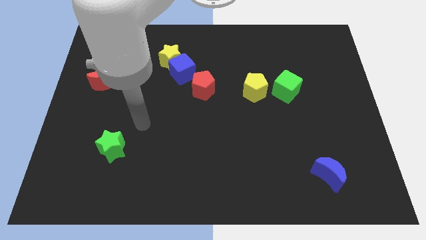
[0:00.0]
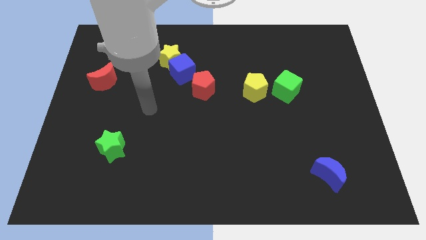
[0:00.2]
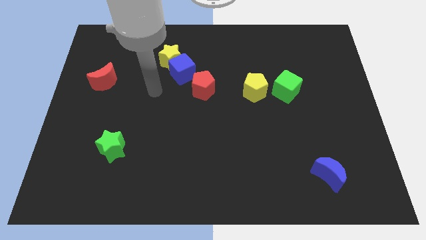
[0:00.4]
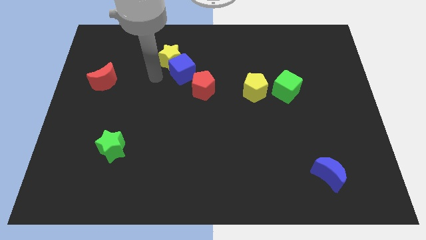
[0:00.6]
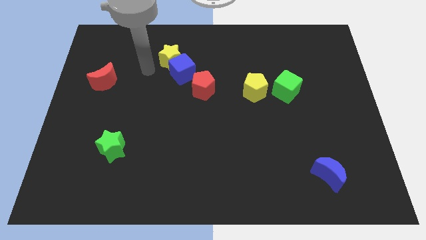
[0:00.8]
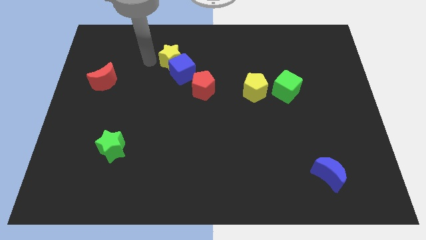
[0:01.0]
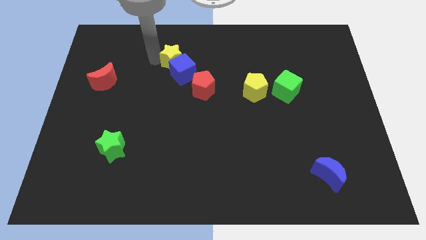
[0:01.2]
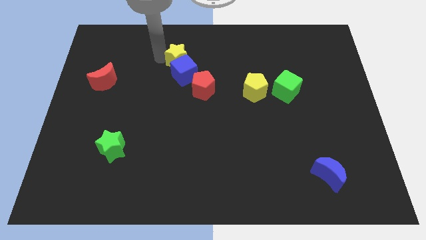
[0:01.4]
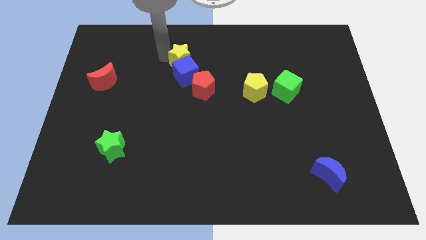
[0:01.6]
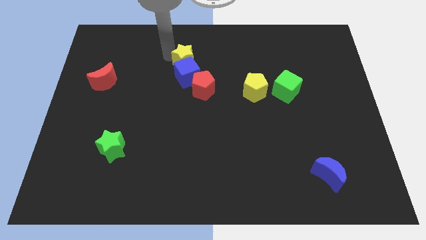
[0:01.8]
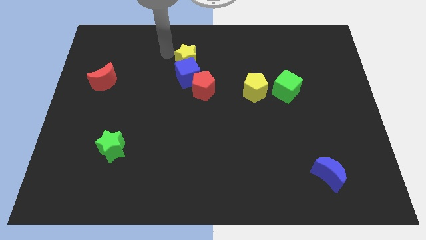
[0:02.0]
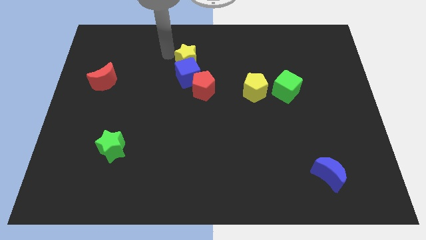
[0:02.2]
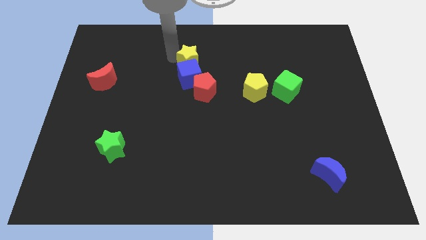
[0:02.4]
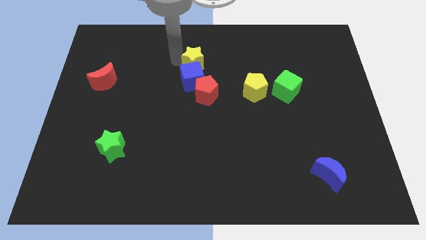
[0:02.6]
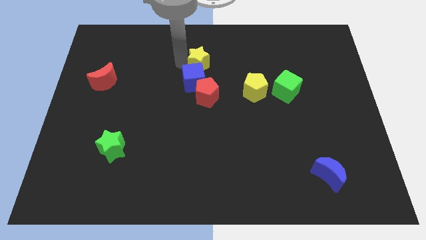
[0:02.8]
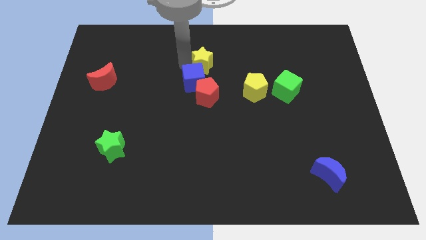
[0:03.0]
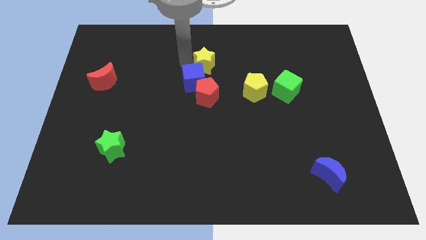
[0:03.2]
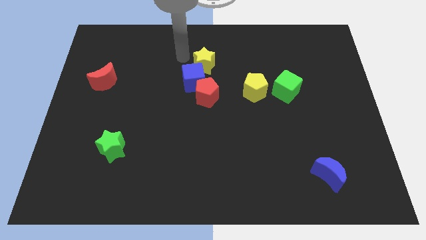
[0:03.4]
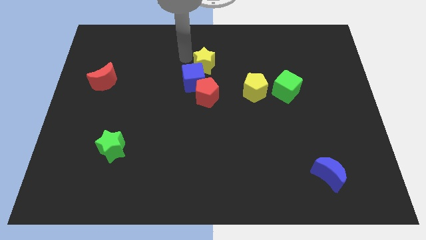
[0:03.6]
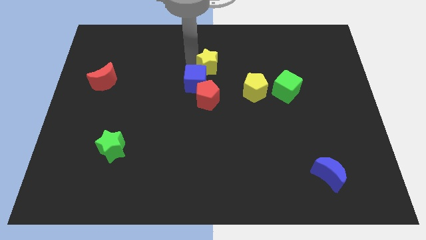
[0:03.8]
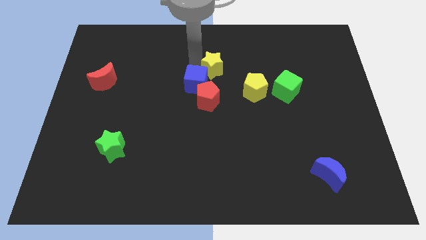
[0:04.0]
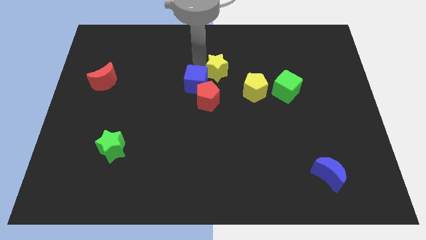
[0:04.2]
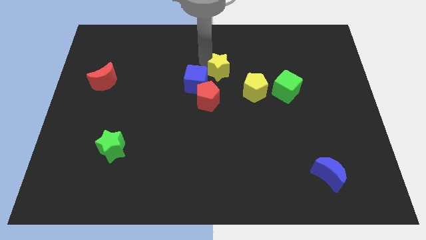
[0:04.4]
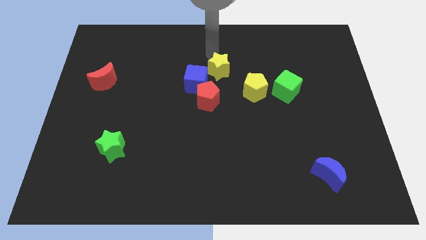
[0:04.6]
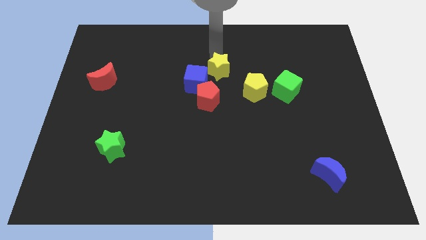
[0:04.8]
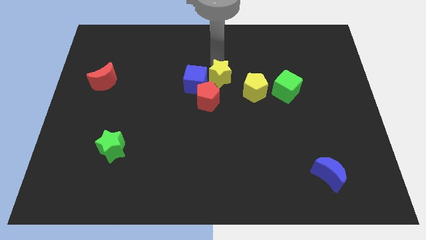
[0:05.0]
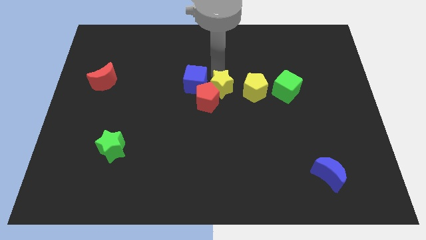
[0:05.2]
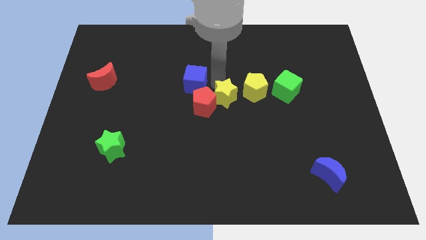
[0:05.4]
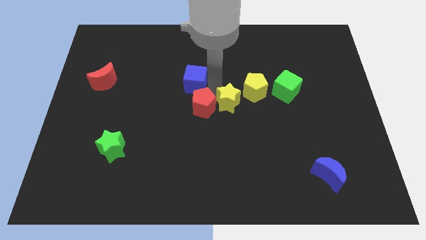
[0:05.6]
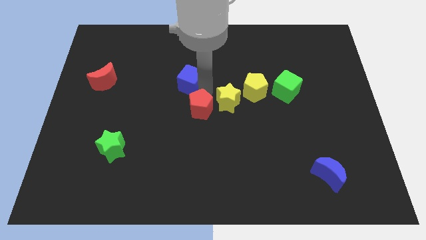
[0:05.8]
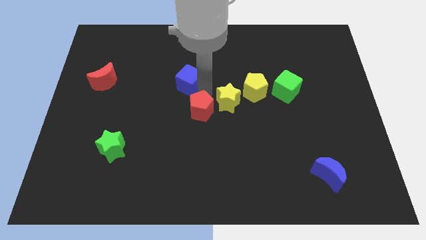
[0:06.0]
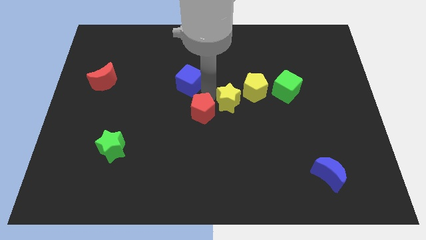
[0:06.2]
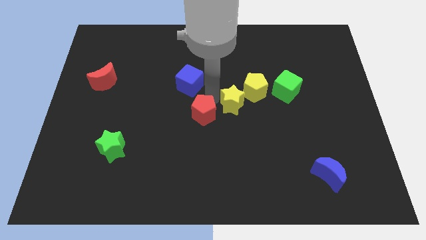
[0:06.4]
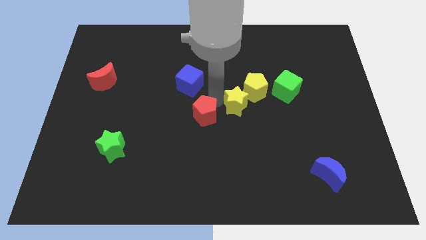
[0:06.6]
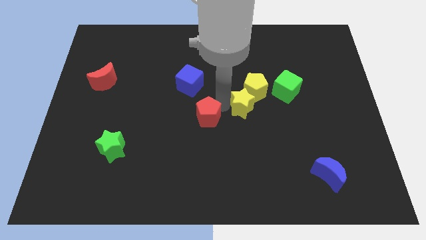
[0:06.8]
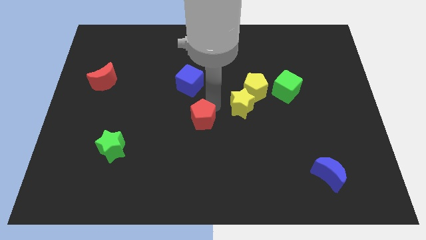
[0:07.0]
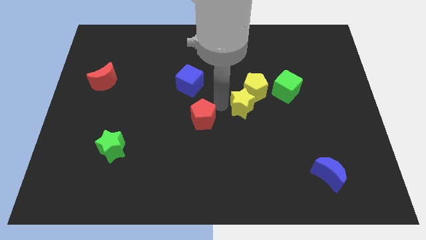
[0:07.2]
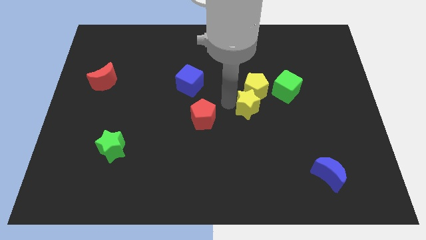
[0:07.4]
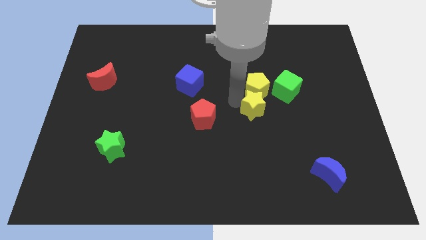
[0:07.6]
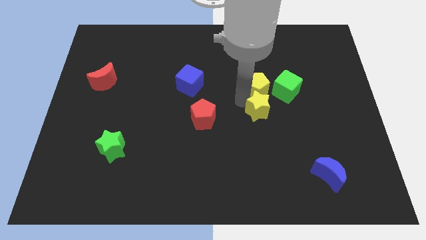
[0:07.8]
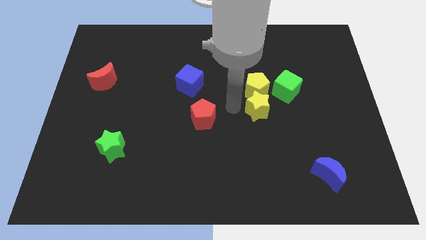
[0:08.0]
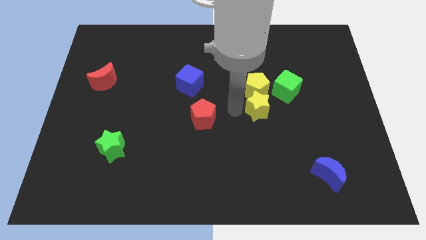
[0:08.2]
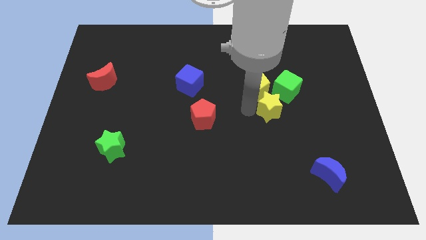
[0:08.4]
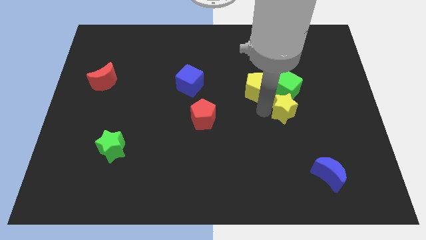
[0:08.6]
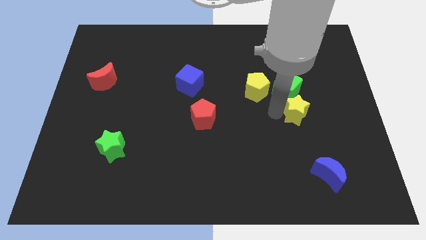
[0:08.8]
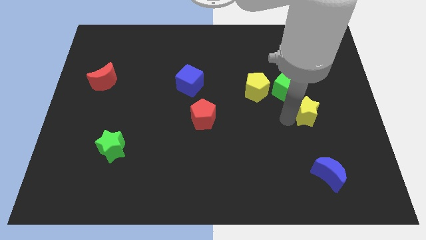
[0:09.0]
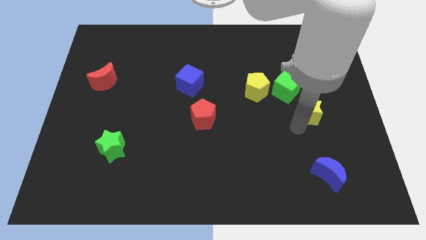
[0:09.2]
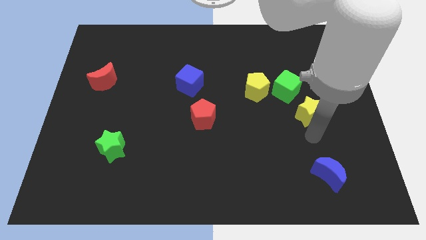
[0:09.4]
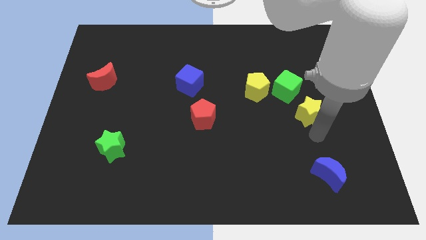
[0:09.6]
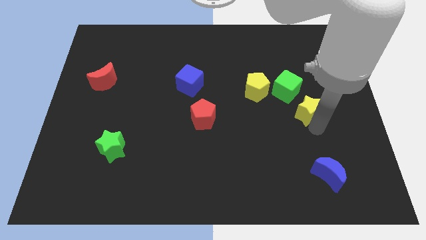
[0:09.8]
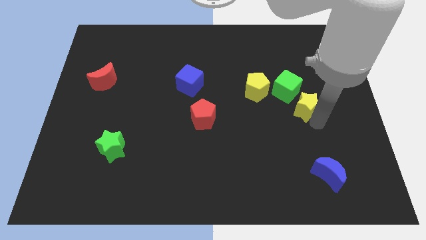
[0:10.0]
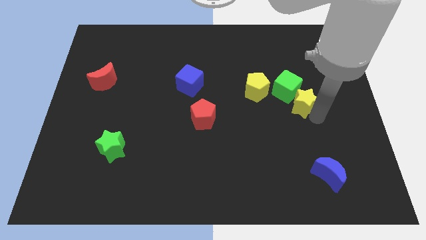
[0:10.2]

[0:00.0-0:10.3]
push the yellow star just right of the yellow pentagon

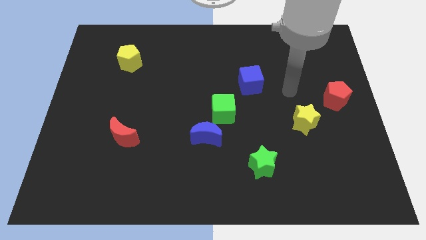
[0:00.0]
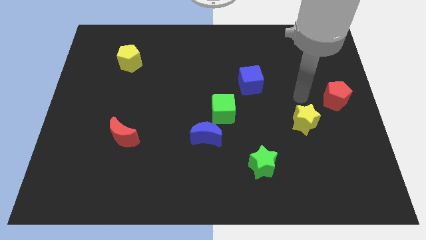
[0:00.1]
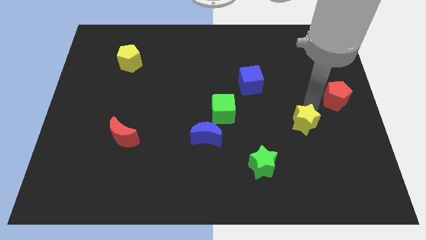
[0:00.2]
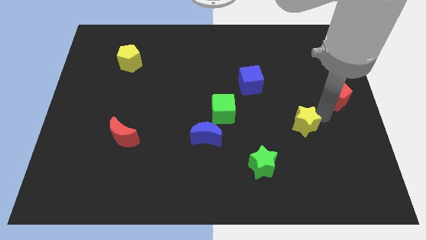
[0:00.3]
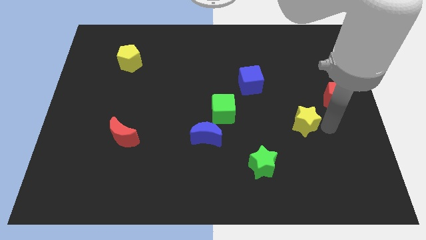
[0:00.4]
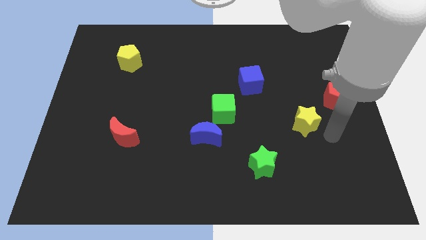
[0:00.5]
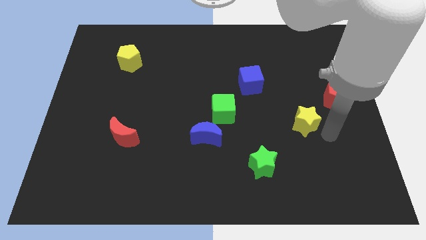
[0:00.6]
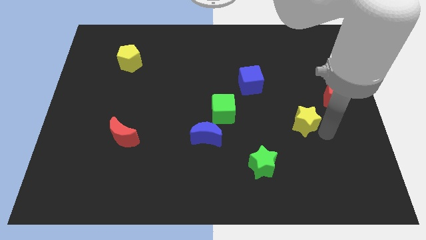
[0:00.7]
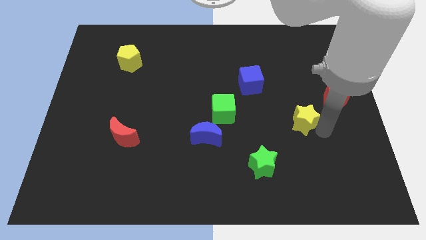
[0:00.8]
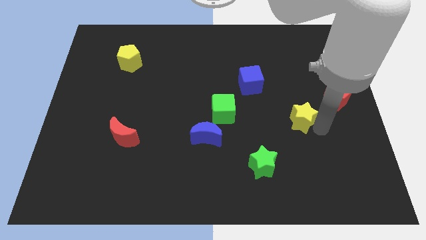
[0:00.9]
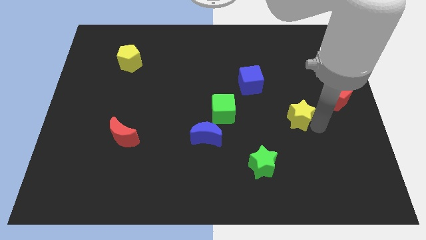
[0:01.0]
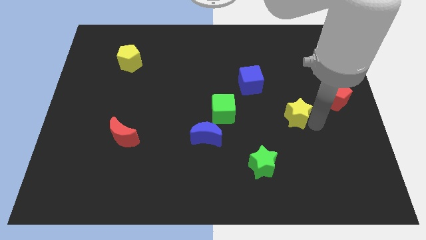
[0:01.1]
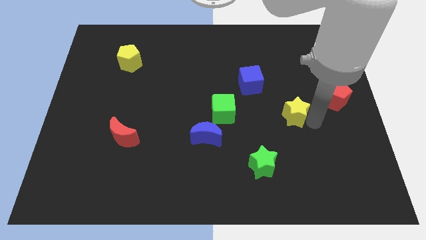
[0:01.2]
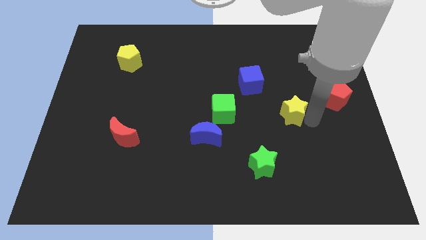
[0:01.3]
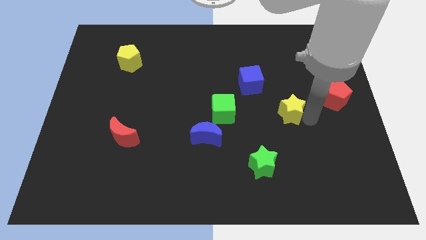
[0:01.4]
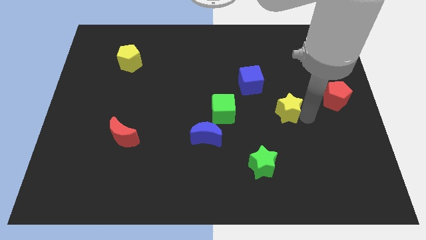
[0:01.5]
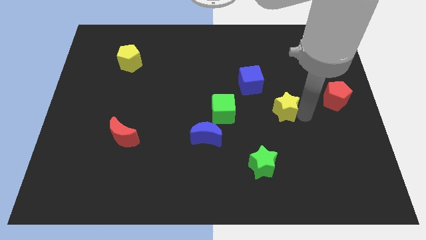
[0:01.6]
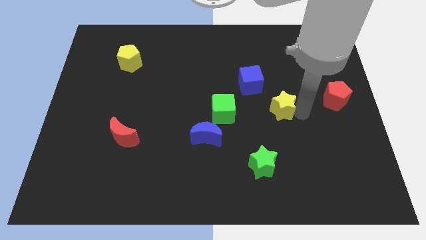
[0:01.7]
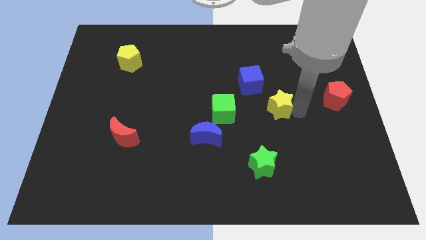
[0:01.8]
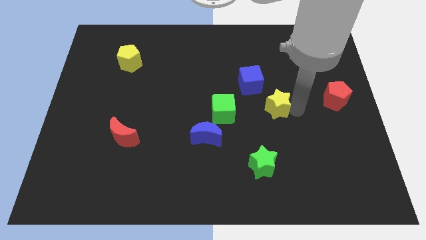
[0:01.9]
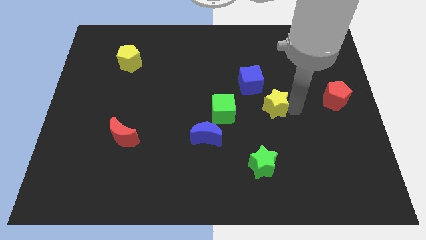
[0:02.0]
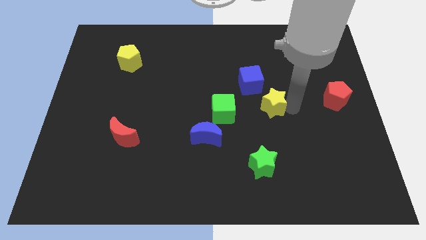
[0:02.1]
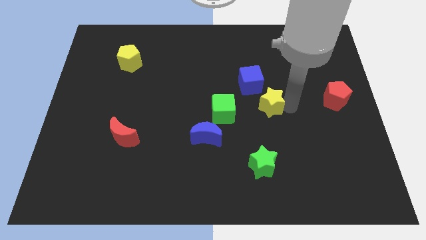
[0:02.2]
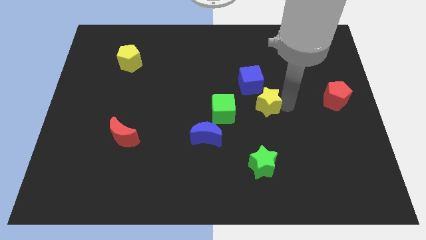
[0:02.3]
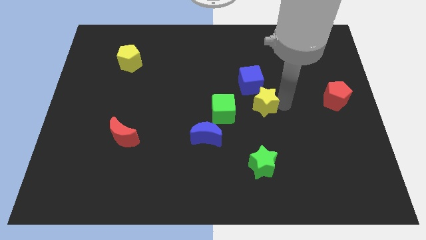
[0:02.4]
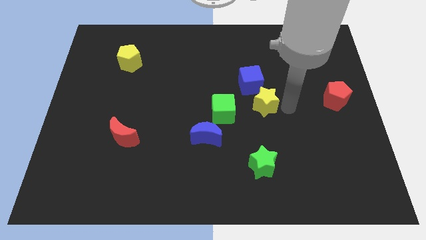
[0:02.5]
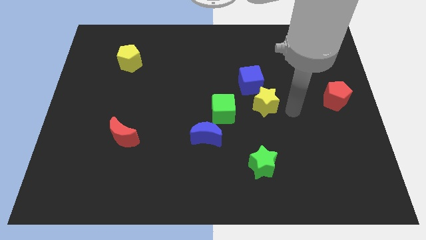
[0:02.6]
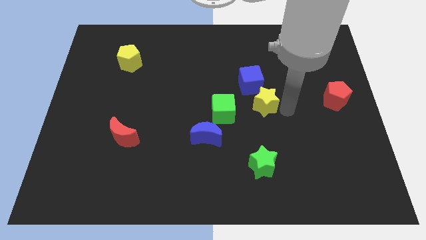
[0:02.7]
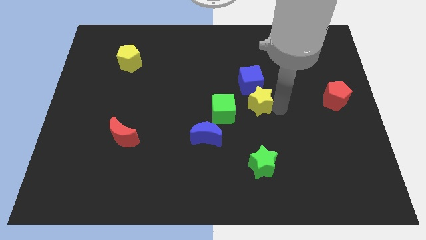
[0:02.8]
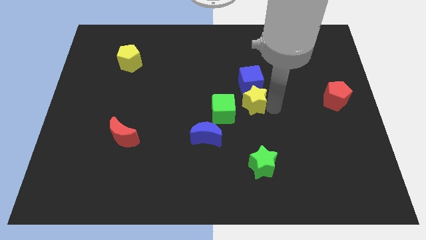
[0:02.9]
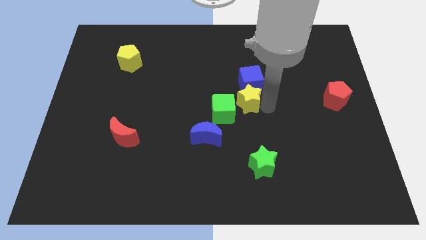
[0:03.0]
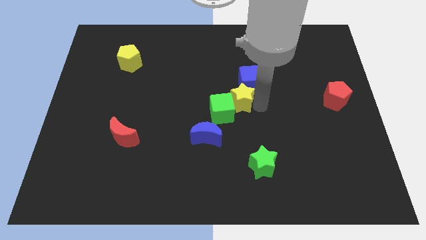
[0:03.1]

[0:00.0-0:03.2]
move the yellow star to the top right of the blue moon
